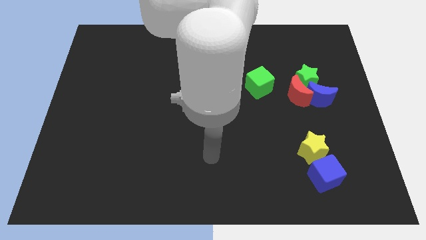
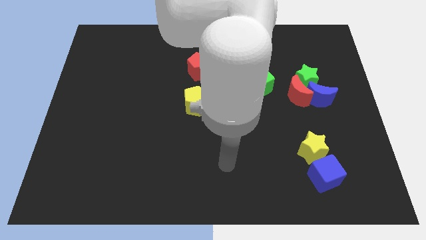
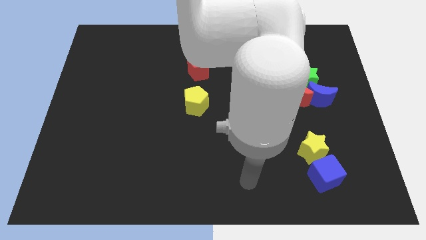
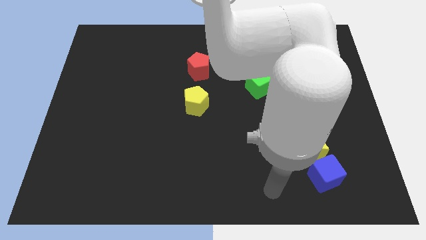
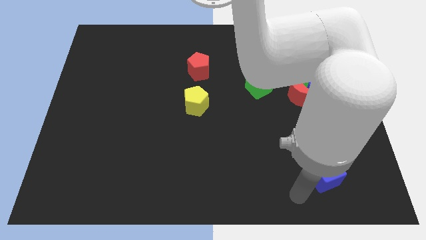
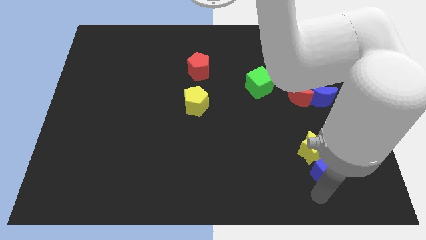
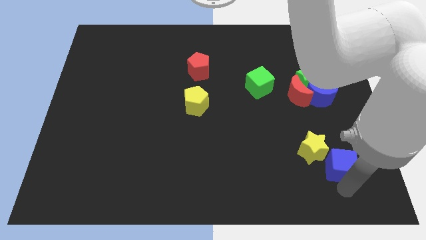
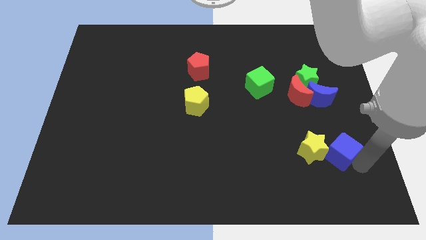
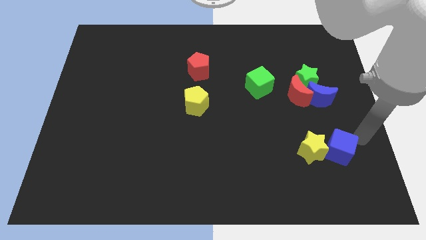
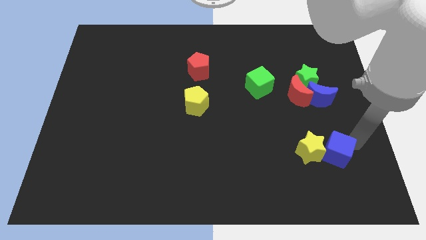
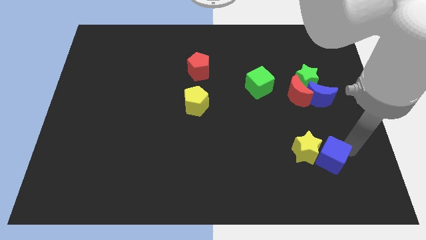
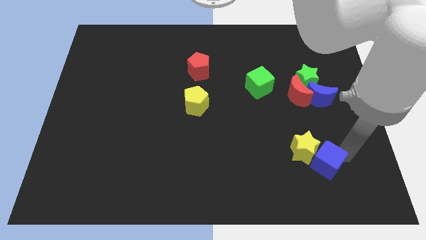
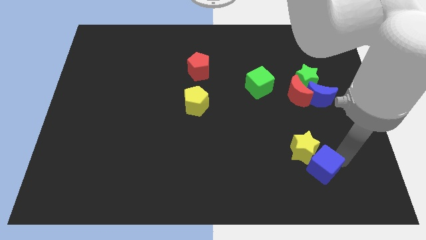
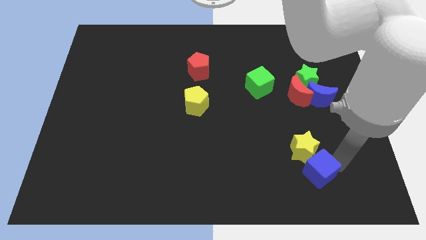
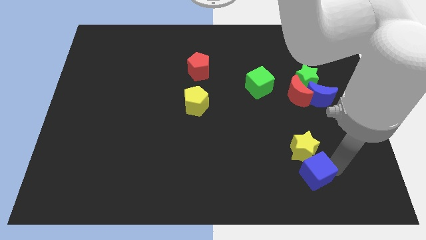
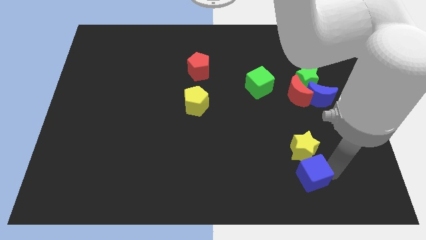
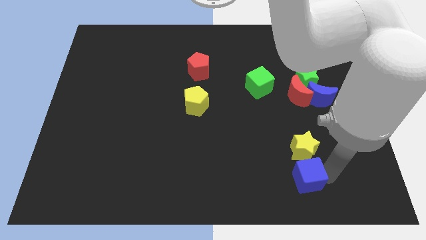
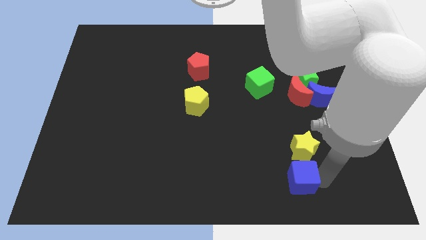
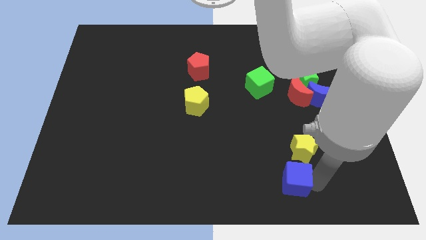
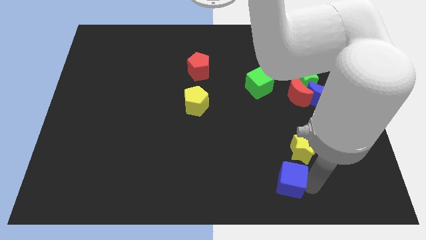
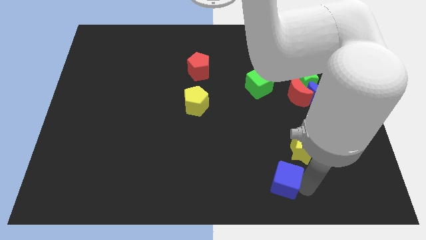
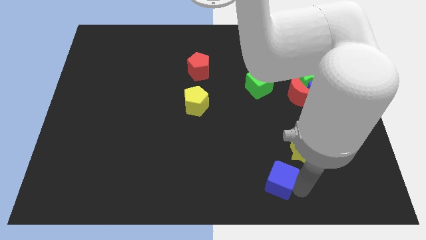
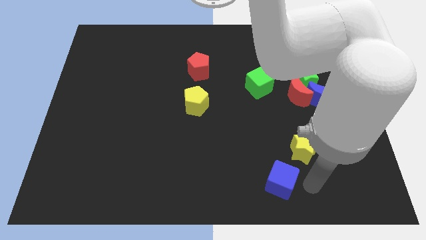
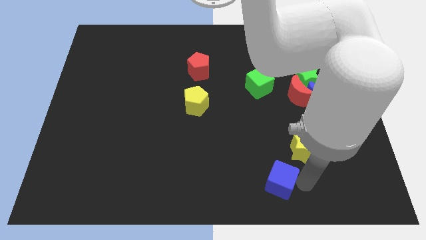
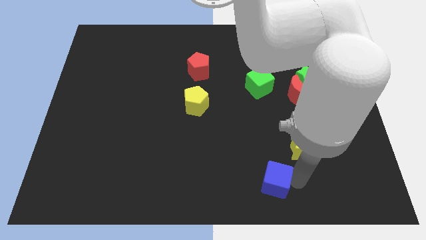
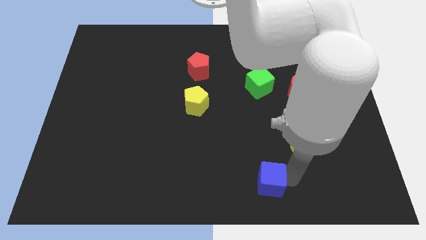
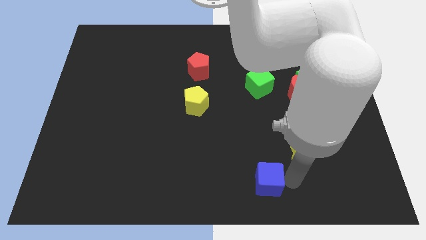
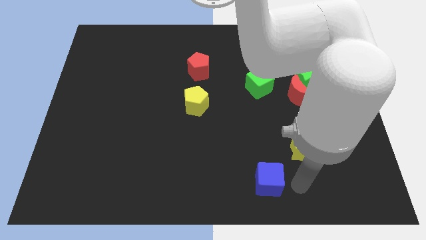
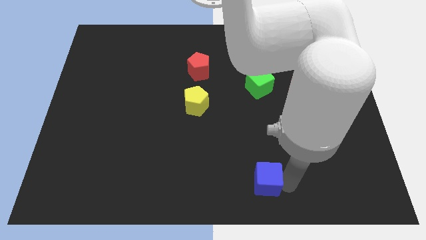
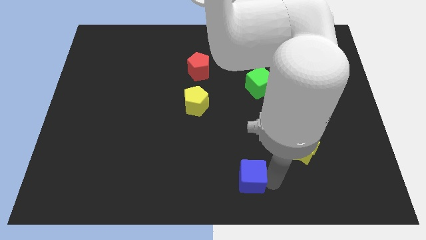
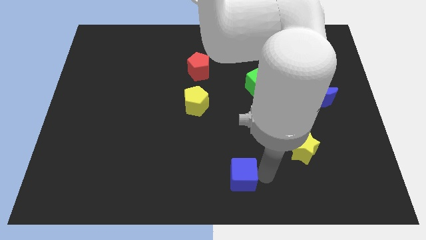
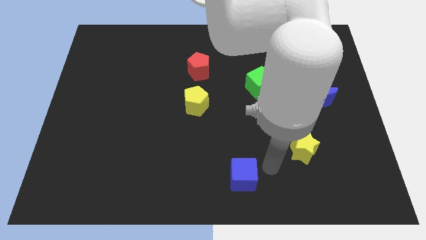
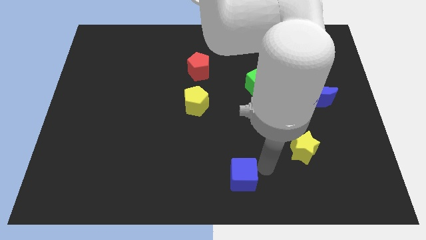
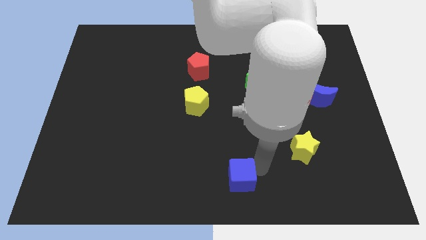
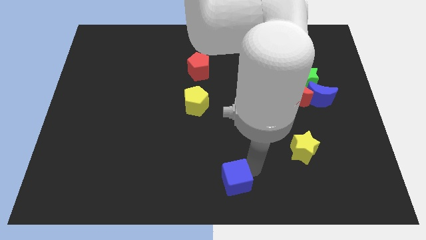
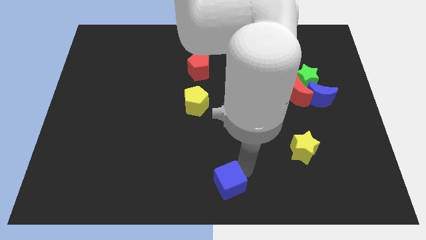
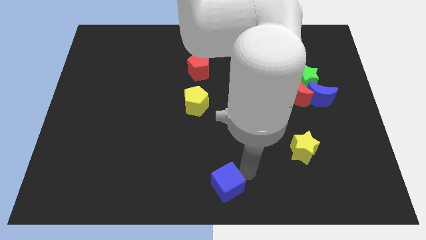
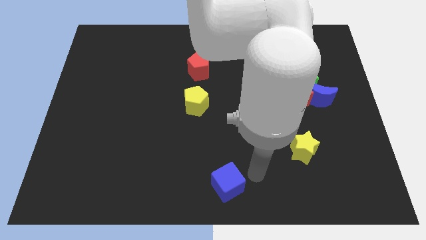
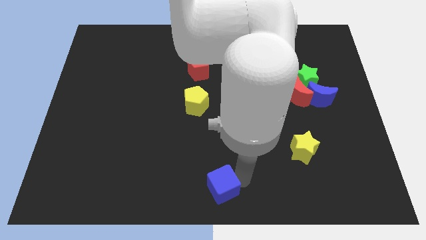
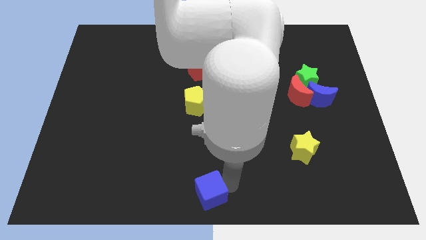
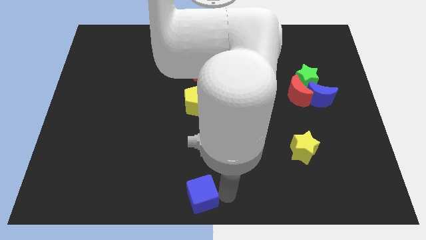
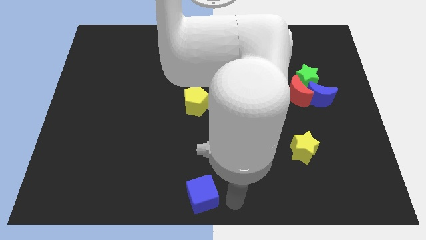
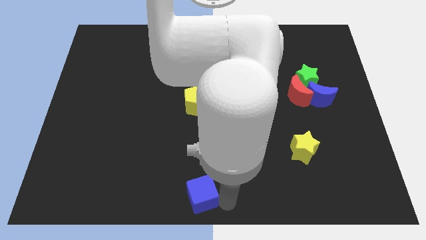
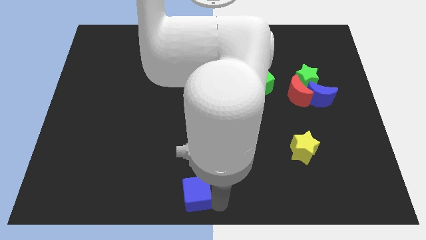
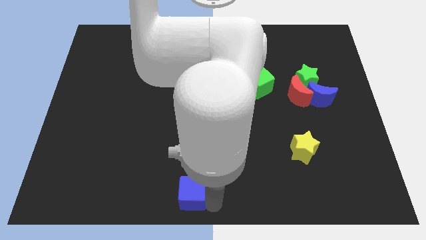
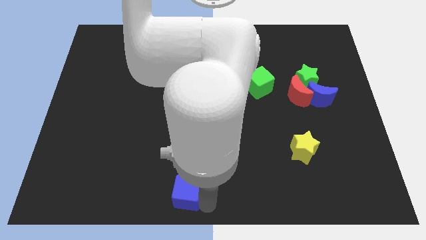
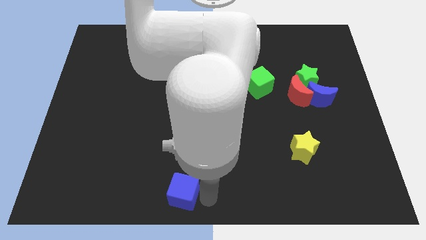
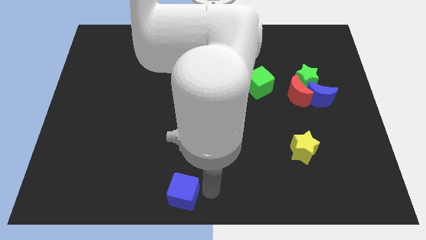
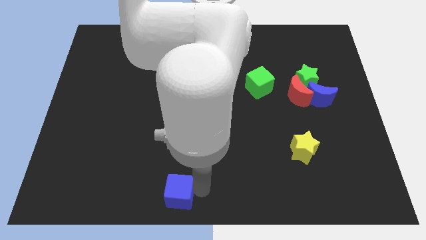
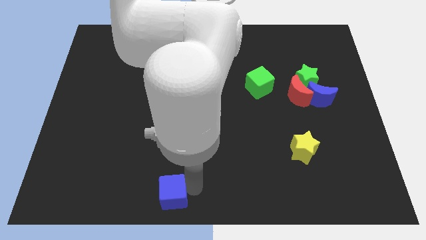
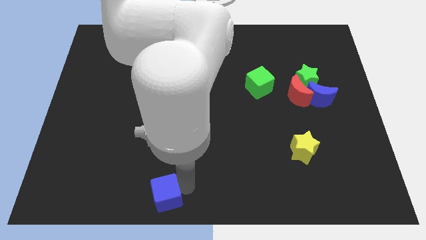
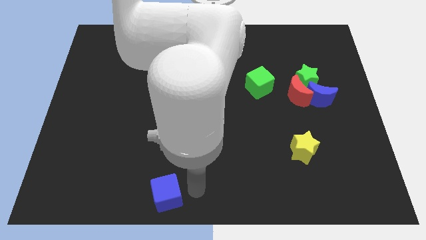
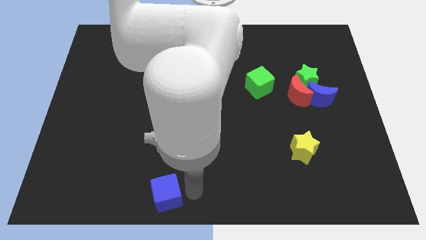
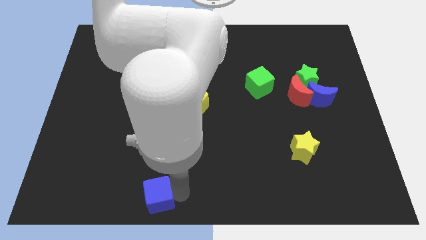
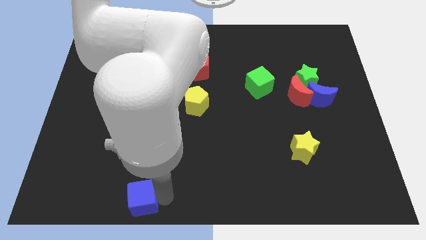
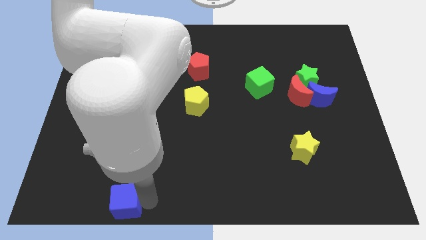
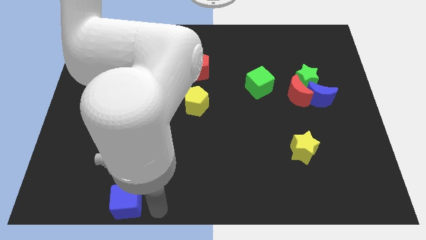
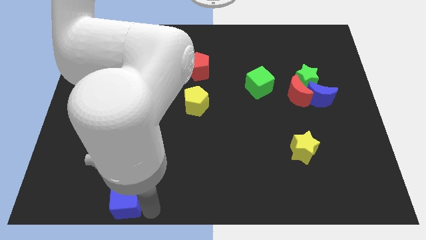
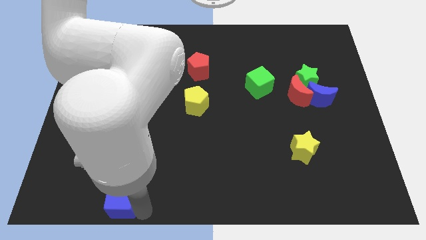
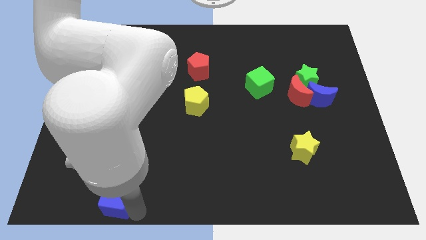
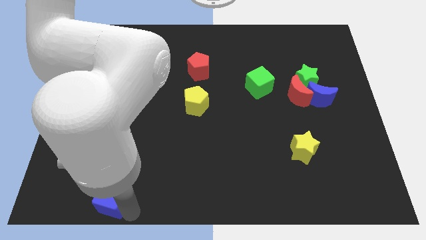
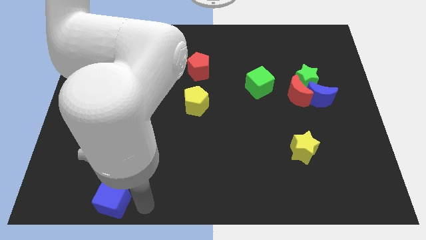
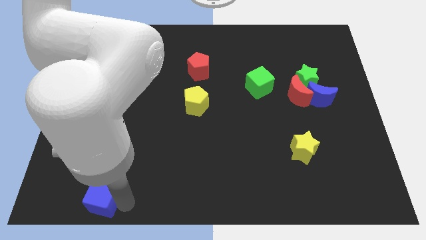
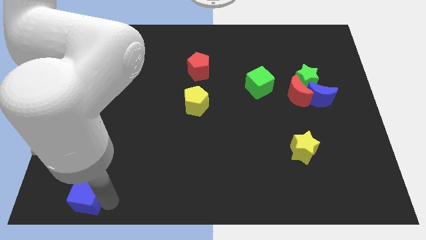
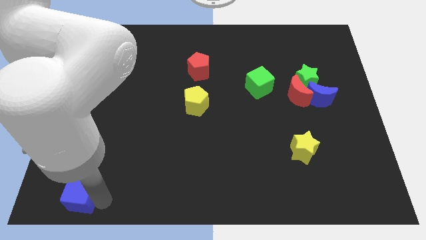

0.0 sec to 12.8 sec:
put the blue cube to the bottom left of the board

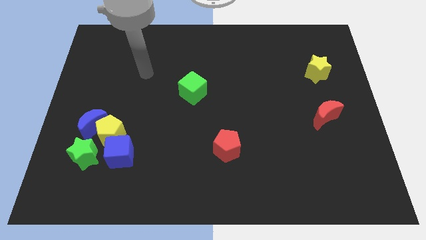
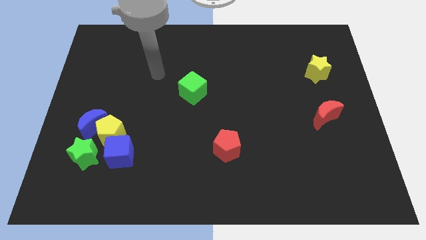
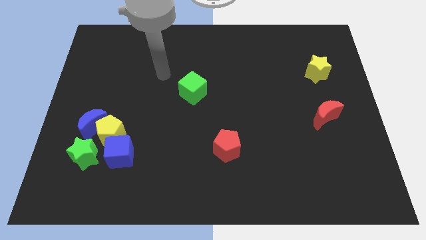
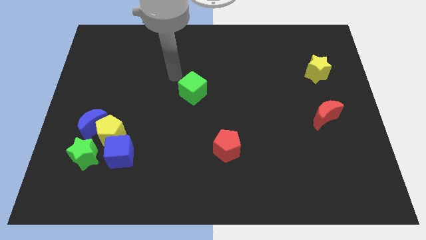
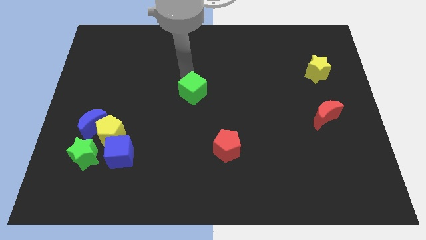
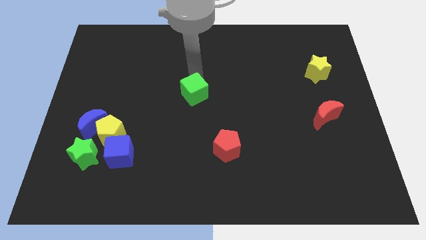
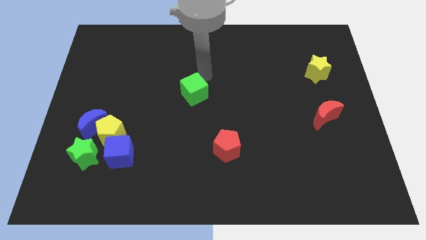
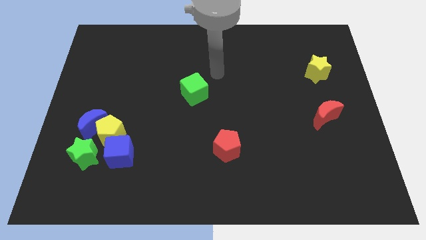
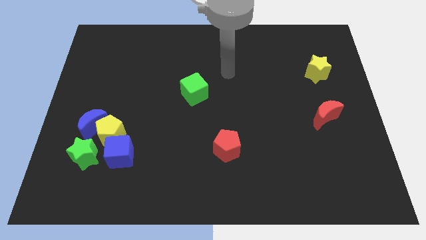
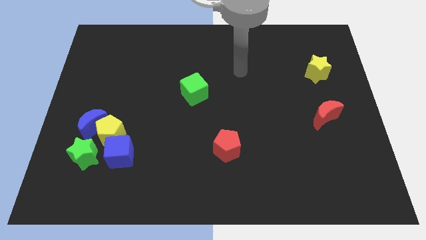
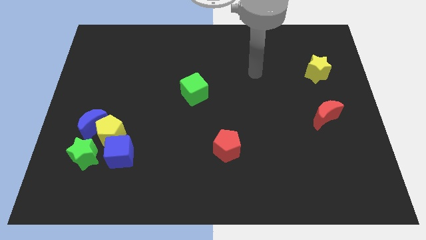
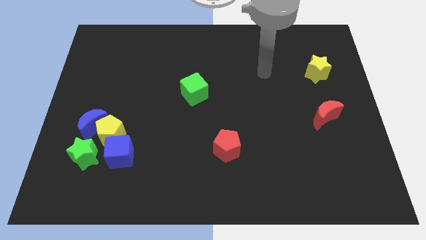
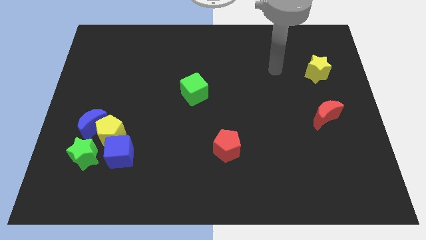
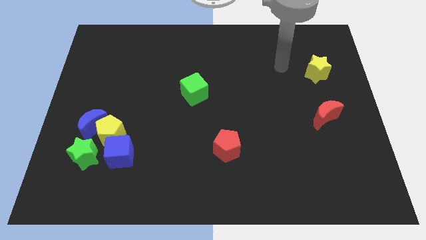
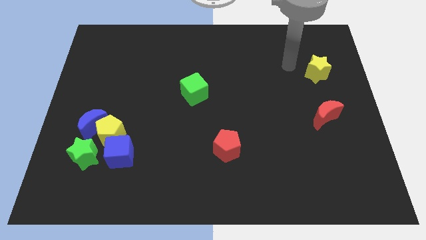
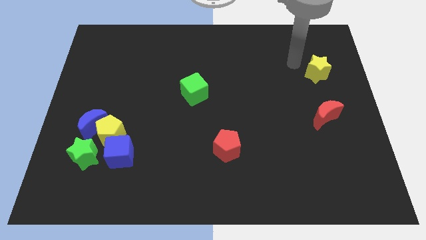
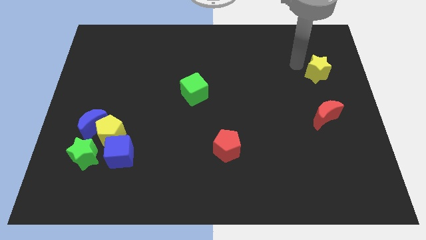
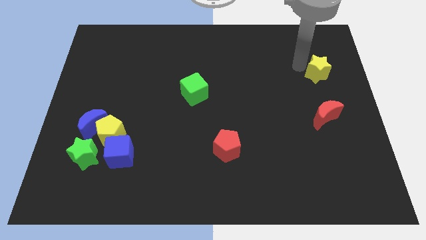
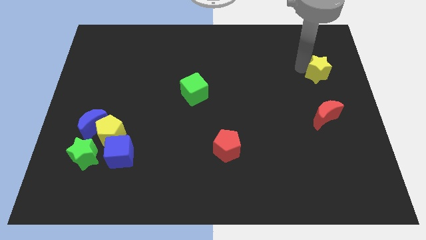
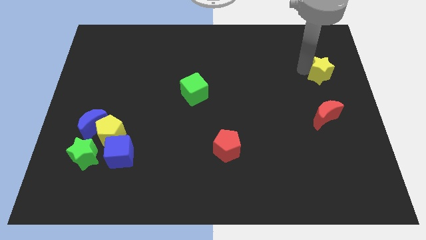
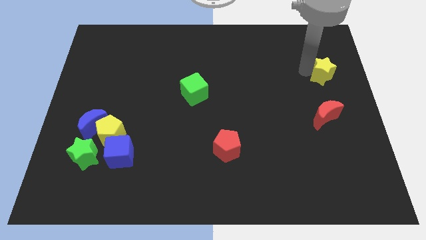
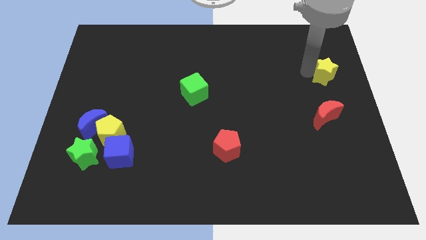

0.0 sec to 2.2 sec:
put the yellow star to the center right
